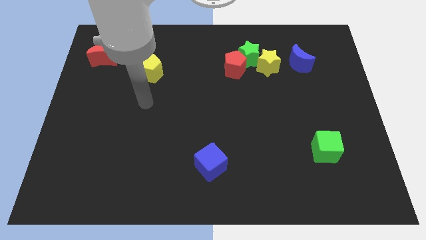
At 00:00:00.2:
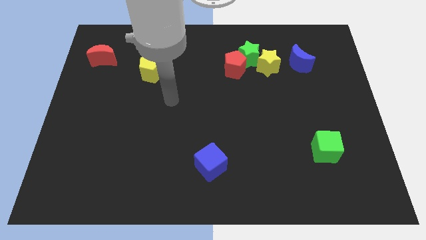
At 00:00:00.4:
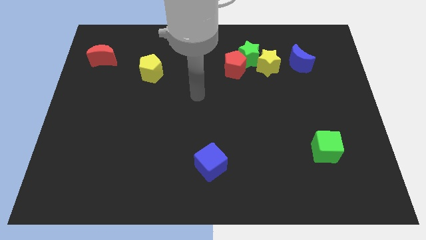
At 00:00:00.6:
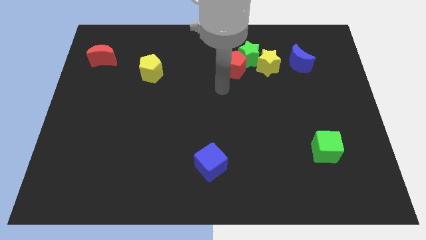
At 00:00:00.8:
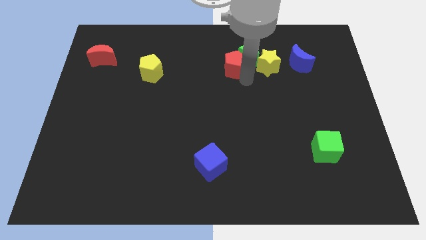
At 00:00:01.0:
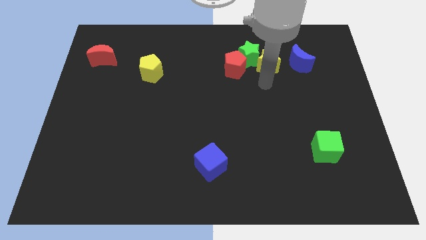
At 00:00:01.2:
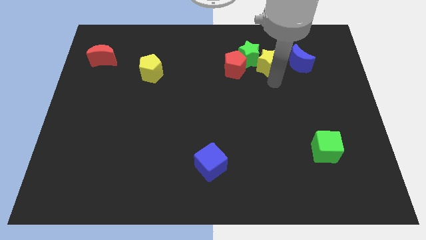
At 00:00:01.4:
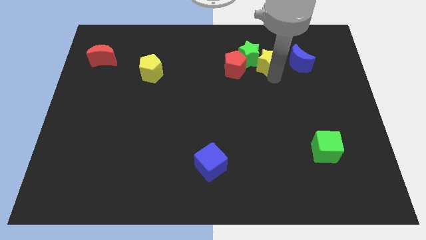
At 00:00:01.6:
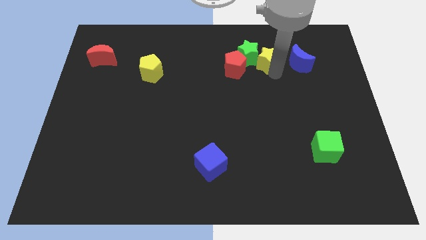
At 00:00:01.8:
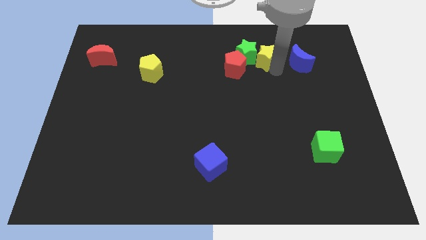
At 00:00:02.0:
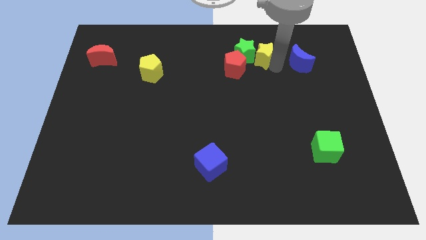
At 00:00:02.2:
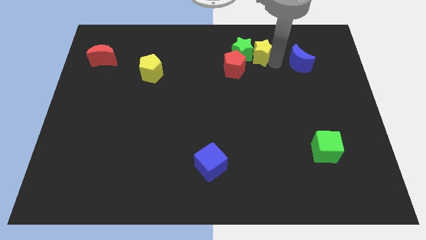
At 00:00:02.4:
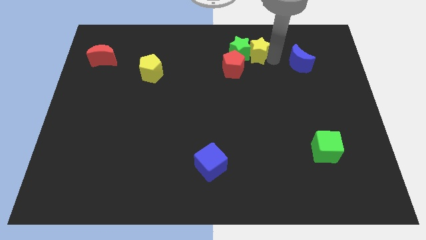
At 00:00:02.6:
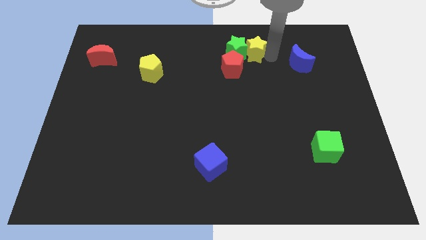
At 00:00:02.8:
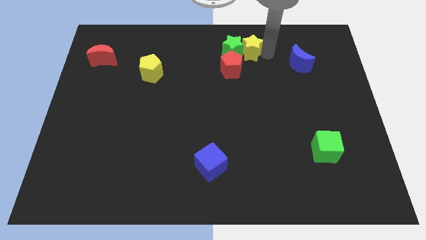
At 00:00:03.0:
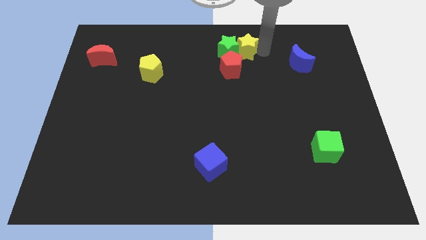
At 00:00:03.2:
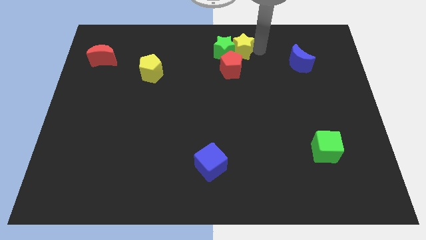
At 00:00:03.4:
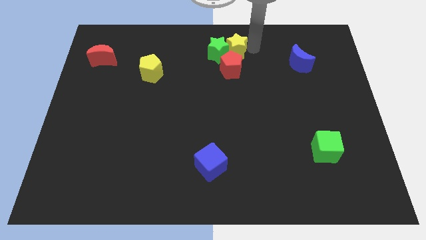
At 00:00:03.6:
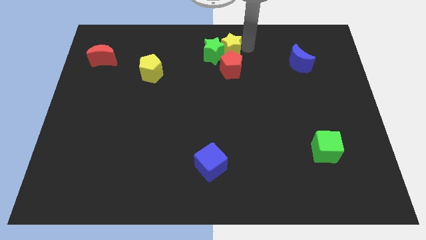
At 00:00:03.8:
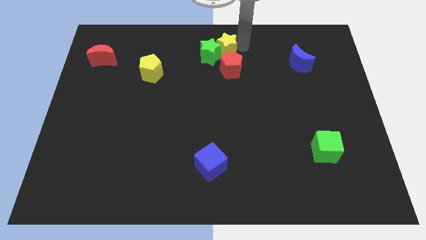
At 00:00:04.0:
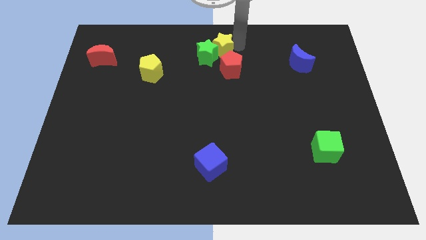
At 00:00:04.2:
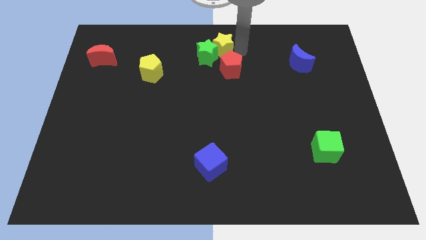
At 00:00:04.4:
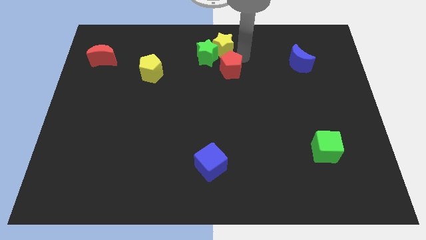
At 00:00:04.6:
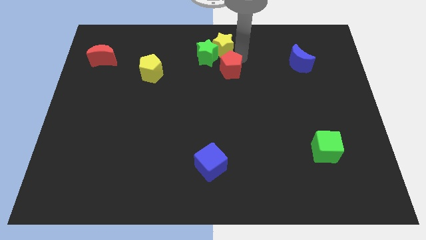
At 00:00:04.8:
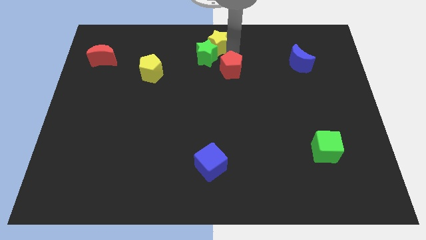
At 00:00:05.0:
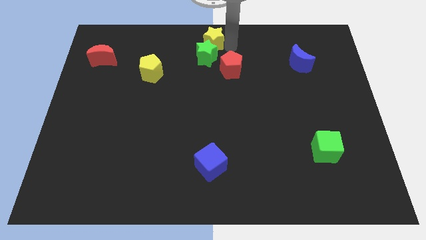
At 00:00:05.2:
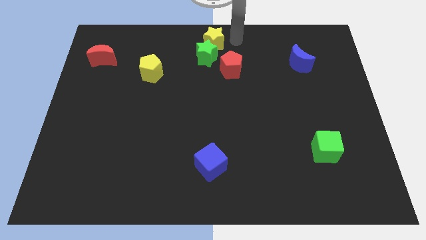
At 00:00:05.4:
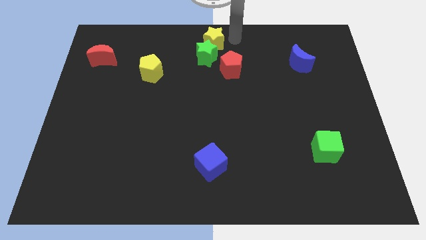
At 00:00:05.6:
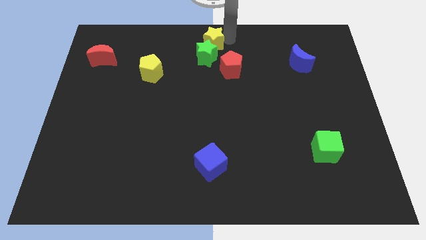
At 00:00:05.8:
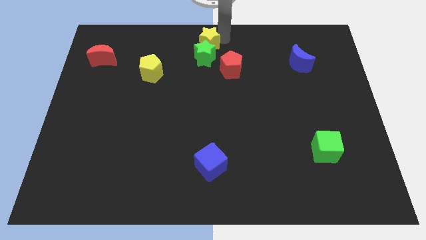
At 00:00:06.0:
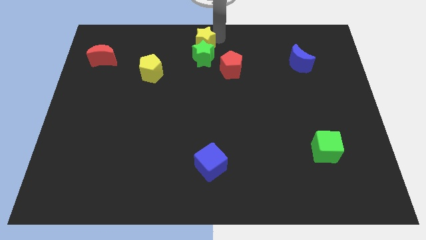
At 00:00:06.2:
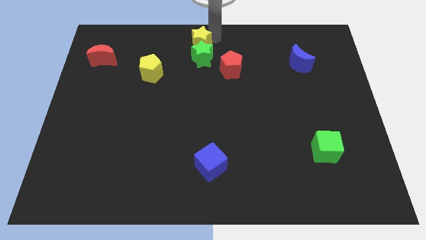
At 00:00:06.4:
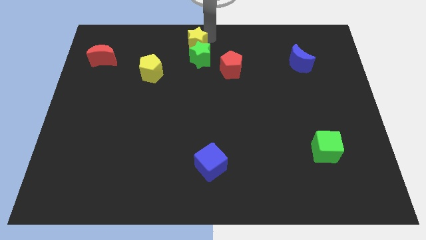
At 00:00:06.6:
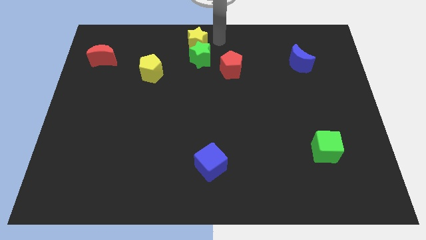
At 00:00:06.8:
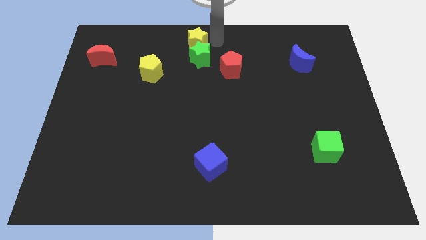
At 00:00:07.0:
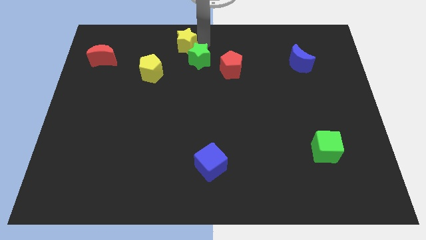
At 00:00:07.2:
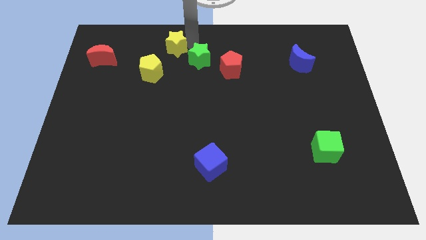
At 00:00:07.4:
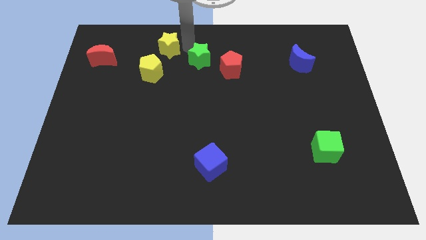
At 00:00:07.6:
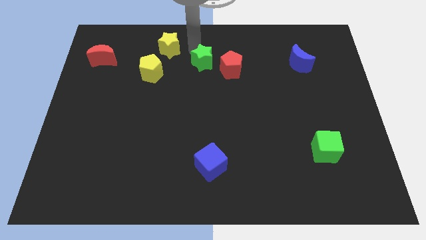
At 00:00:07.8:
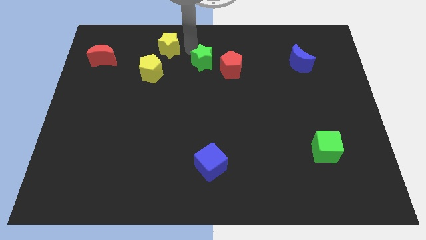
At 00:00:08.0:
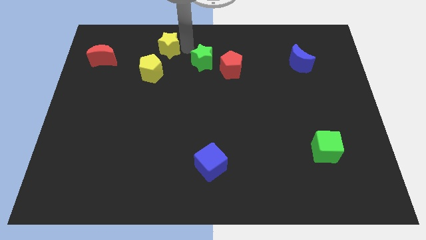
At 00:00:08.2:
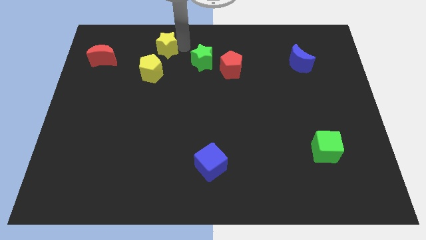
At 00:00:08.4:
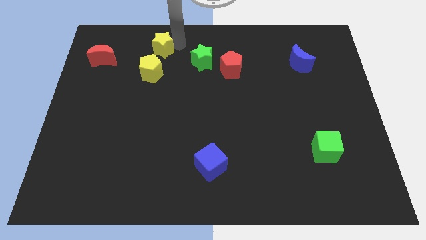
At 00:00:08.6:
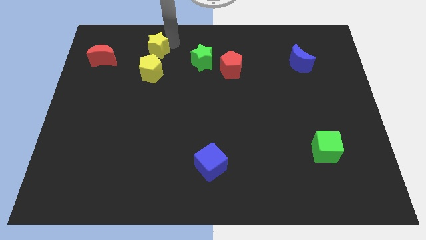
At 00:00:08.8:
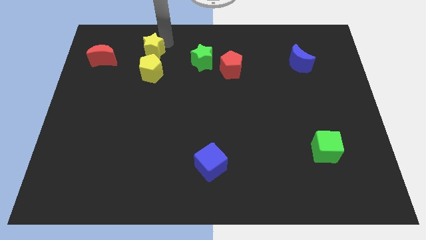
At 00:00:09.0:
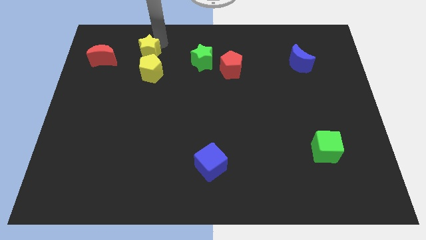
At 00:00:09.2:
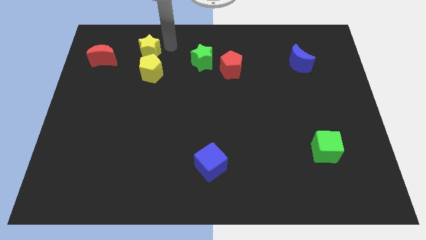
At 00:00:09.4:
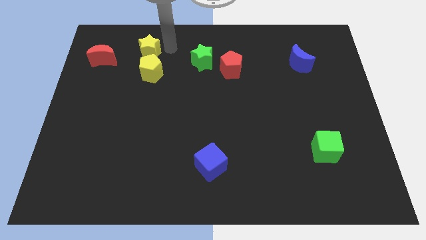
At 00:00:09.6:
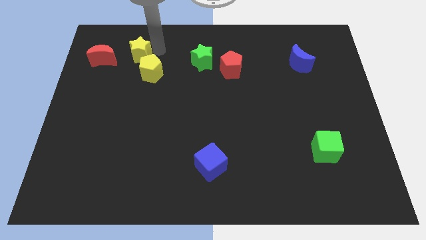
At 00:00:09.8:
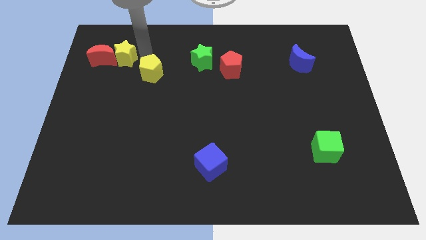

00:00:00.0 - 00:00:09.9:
push the yellow star towards the red moon

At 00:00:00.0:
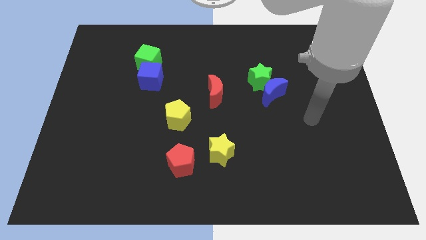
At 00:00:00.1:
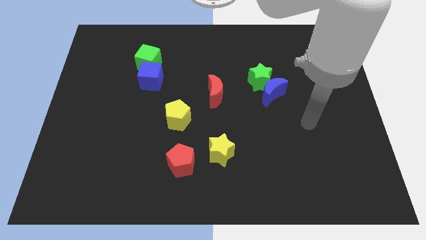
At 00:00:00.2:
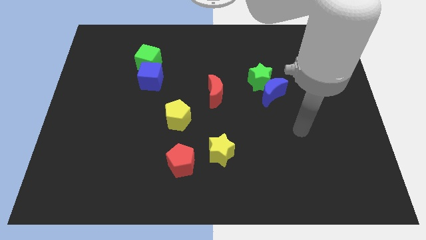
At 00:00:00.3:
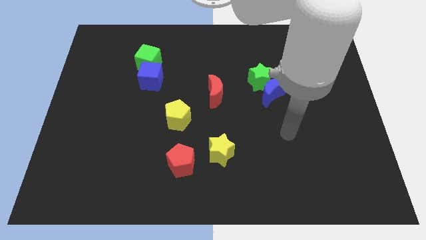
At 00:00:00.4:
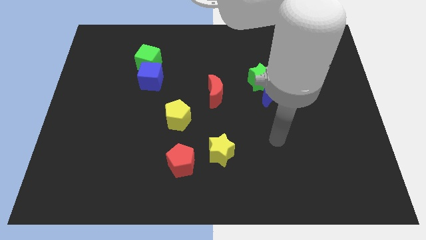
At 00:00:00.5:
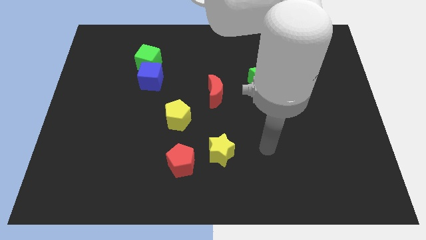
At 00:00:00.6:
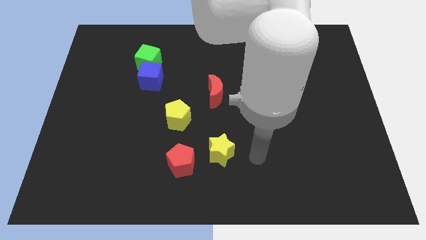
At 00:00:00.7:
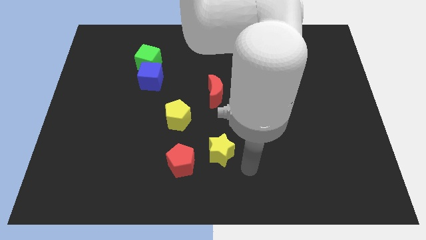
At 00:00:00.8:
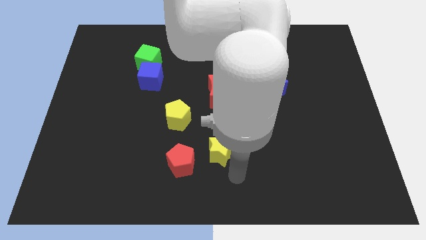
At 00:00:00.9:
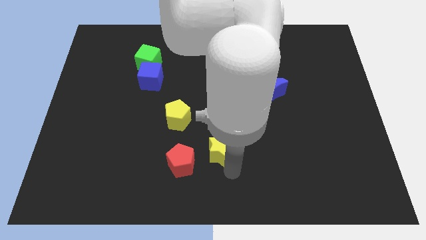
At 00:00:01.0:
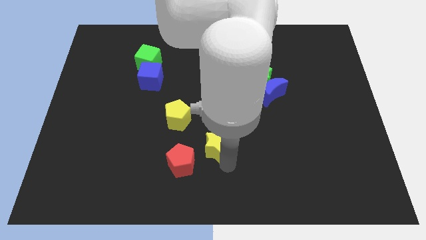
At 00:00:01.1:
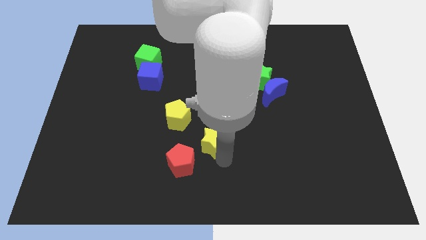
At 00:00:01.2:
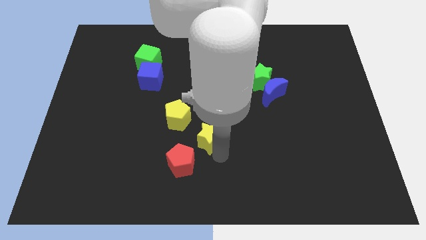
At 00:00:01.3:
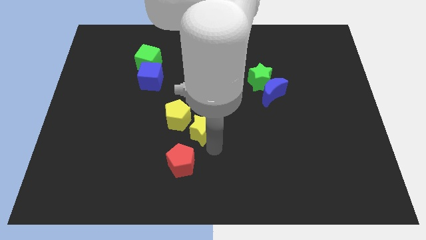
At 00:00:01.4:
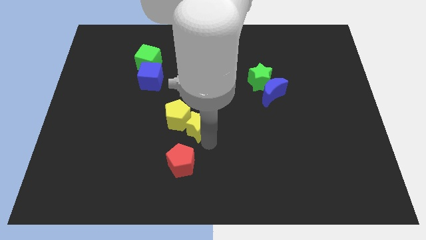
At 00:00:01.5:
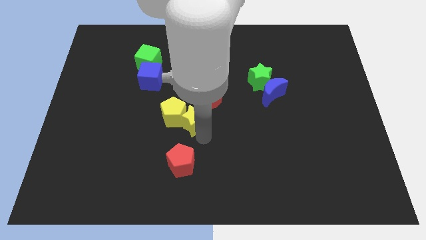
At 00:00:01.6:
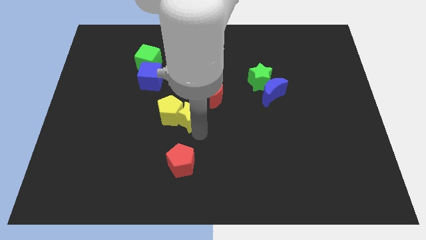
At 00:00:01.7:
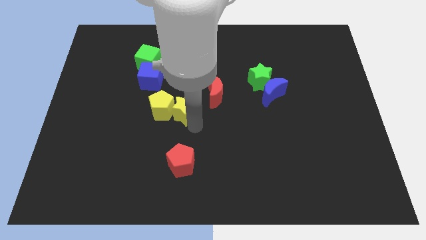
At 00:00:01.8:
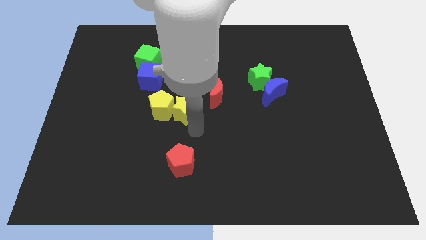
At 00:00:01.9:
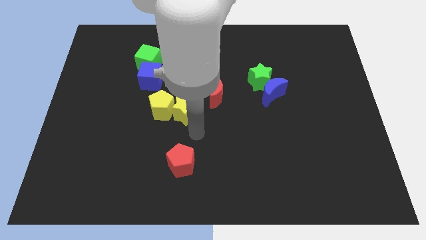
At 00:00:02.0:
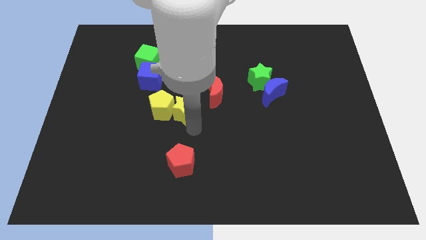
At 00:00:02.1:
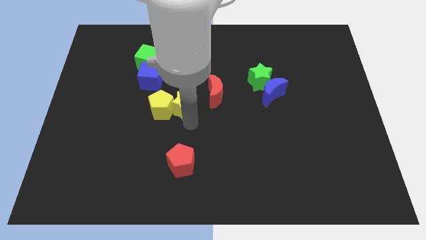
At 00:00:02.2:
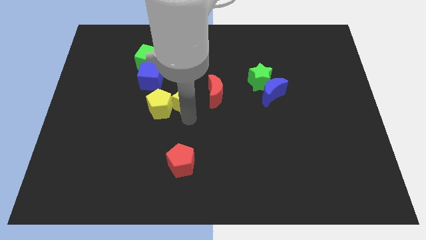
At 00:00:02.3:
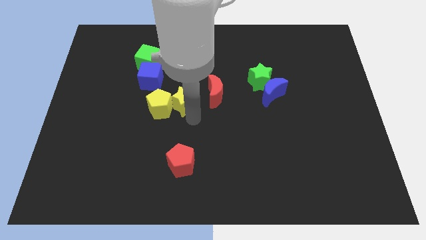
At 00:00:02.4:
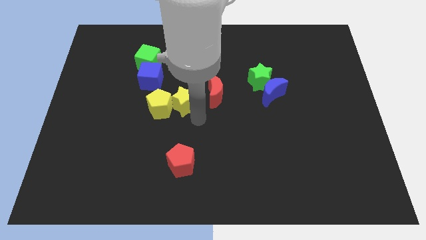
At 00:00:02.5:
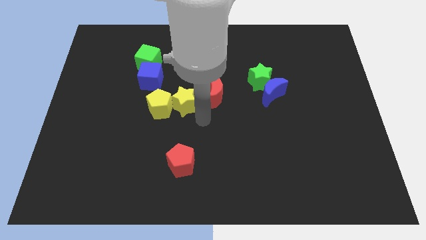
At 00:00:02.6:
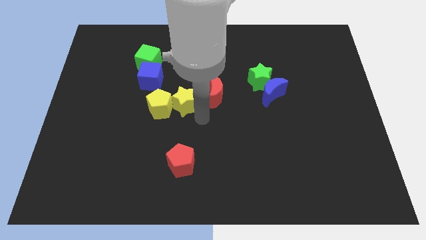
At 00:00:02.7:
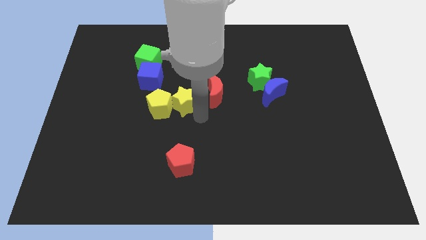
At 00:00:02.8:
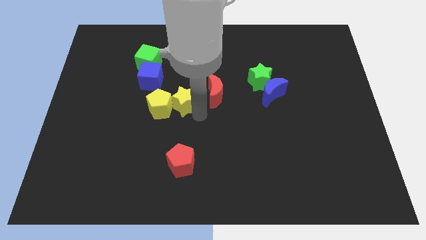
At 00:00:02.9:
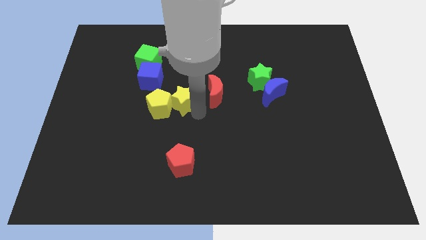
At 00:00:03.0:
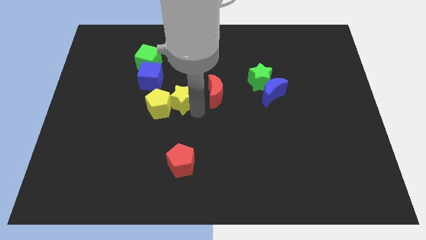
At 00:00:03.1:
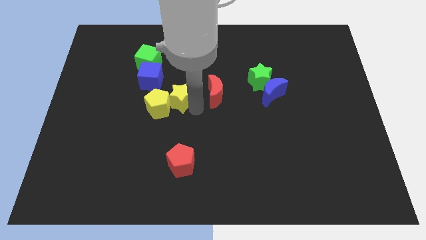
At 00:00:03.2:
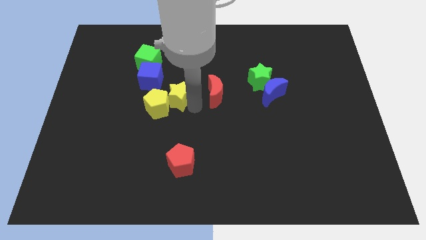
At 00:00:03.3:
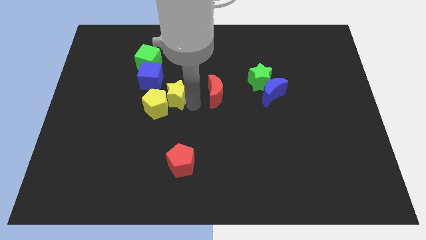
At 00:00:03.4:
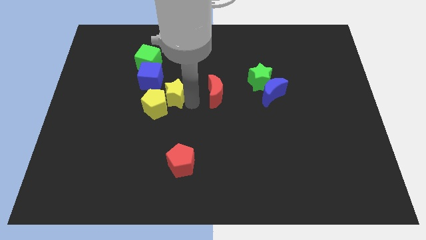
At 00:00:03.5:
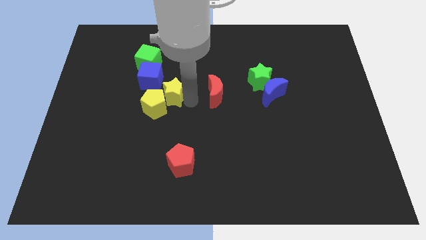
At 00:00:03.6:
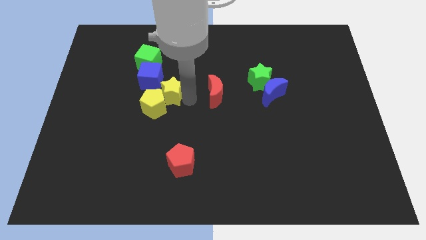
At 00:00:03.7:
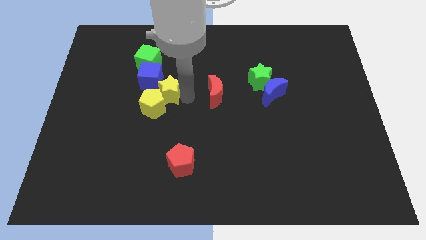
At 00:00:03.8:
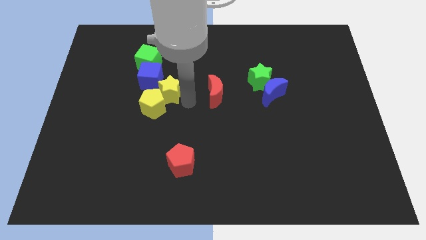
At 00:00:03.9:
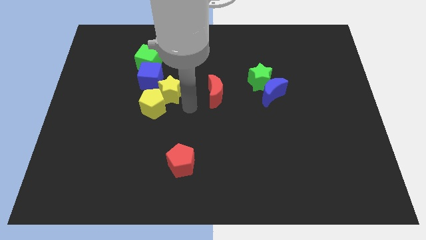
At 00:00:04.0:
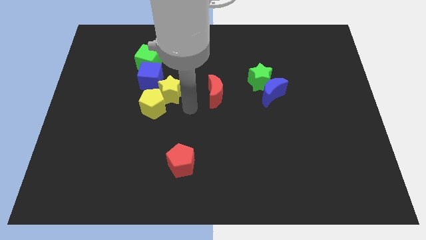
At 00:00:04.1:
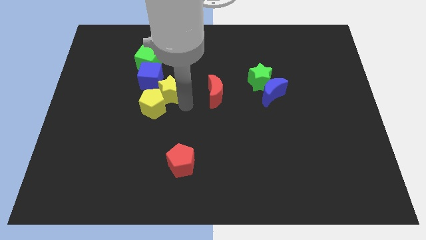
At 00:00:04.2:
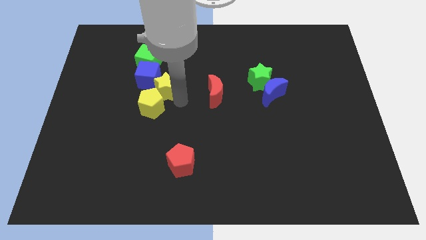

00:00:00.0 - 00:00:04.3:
put the yellow star next to the blue cube
